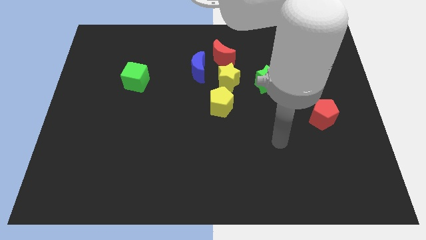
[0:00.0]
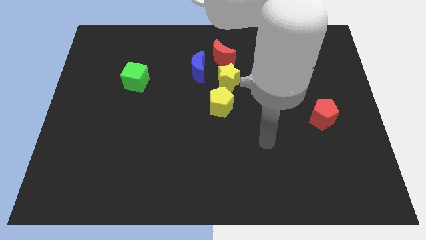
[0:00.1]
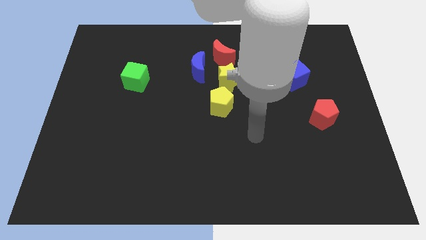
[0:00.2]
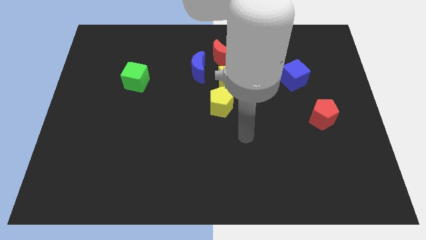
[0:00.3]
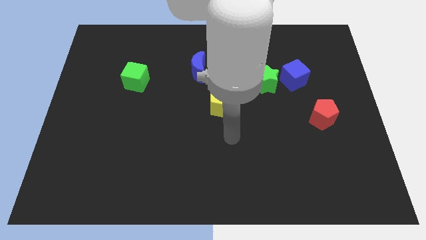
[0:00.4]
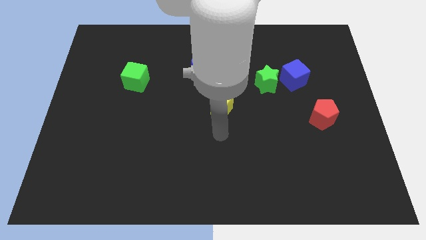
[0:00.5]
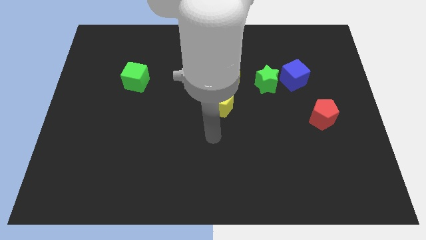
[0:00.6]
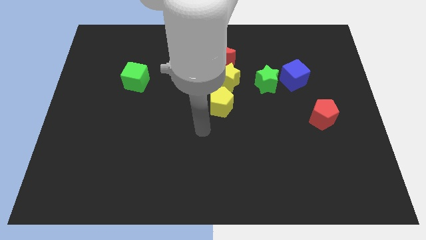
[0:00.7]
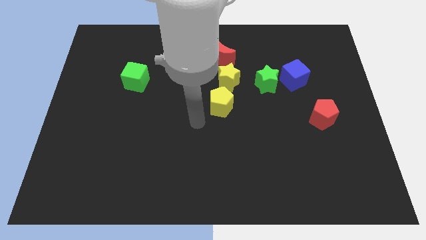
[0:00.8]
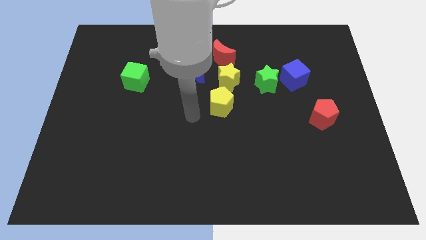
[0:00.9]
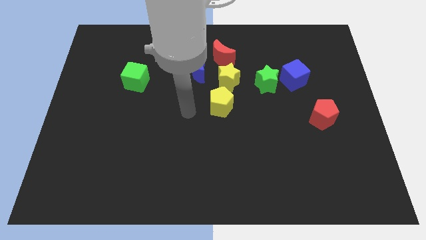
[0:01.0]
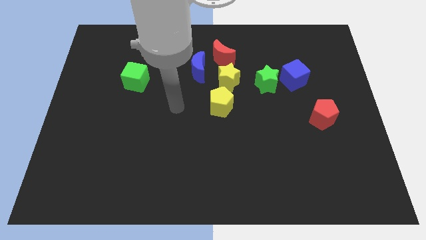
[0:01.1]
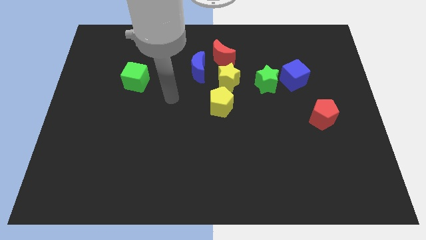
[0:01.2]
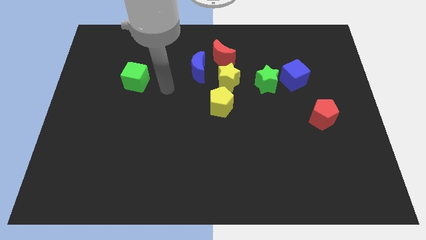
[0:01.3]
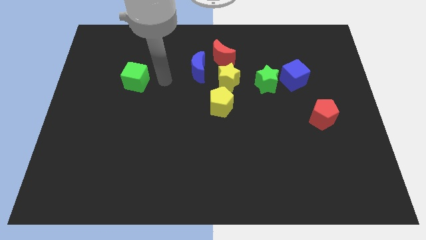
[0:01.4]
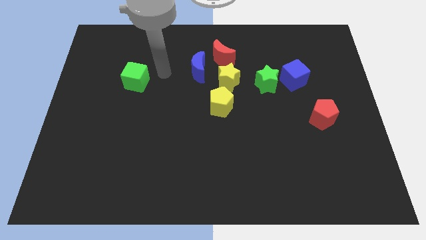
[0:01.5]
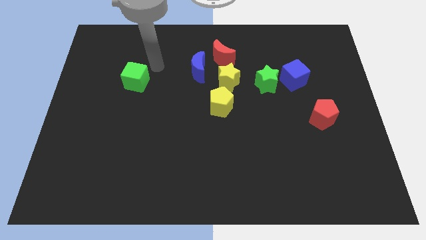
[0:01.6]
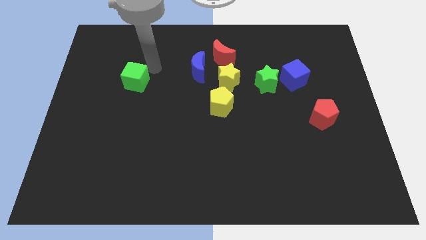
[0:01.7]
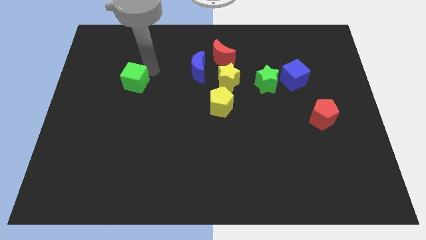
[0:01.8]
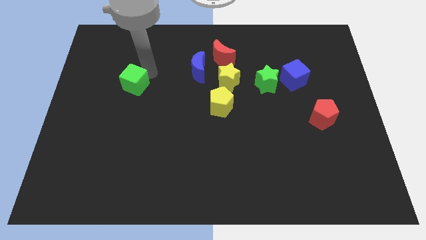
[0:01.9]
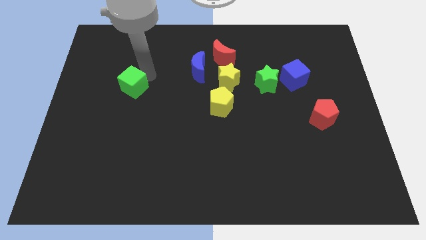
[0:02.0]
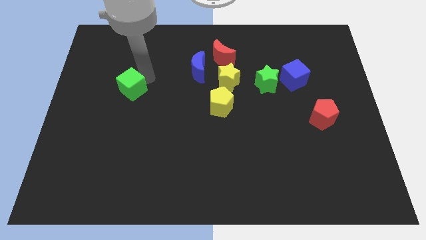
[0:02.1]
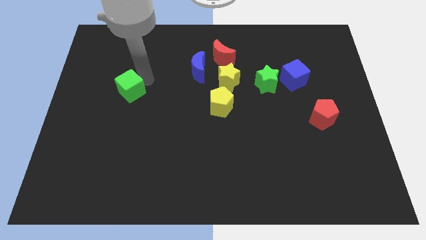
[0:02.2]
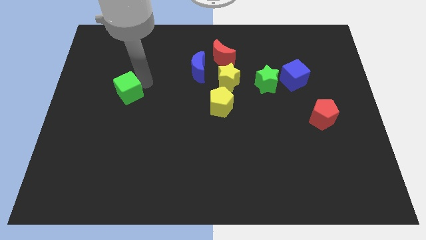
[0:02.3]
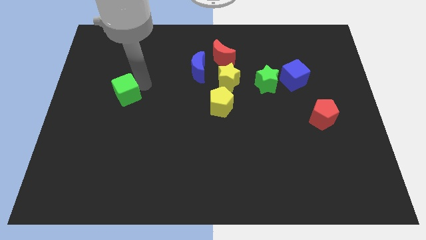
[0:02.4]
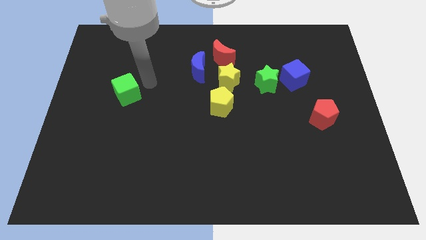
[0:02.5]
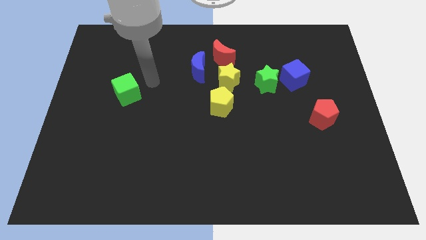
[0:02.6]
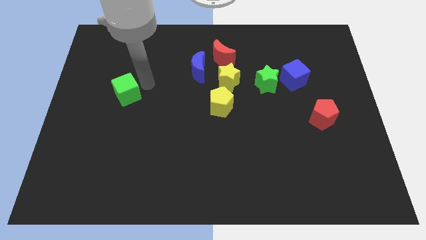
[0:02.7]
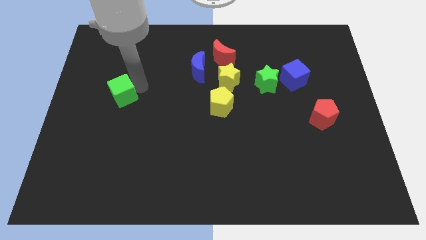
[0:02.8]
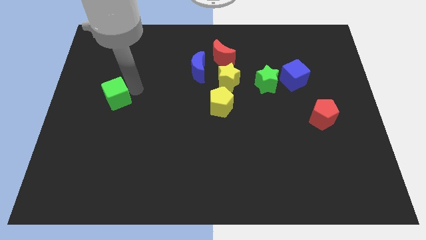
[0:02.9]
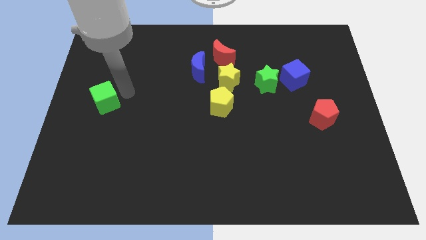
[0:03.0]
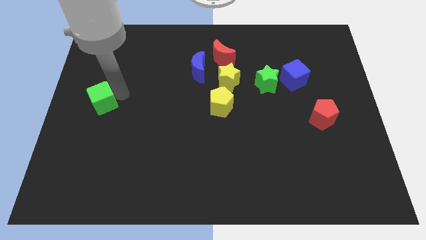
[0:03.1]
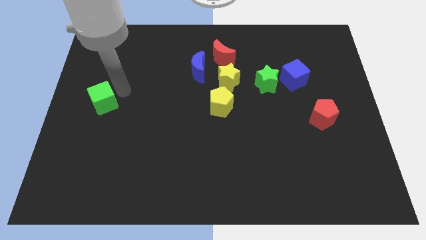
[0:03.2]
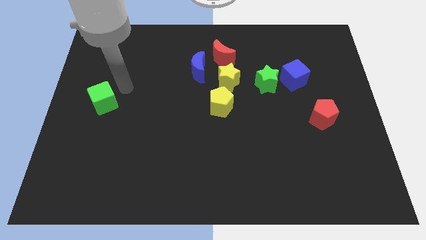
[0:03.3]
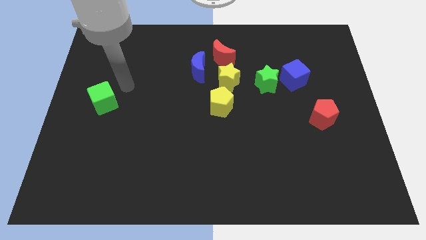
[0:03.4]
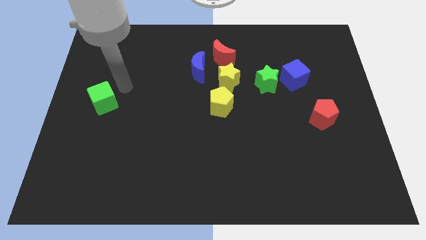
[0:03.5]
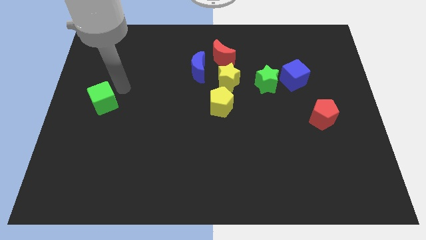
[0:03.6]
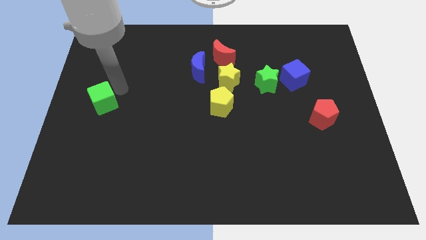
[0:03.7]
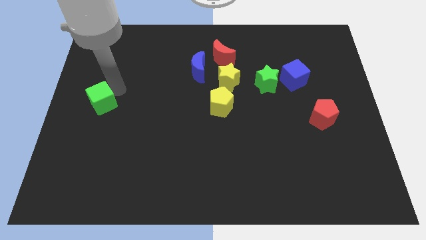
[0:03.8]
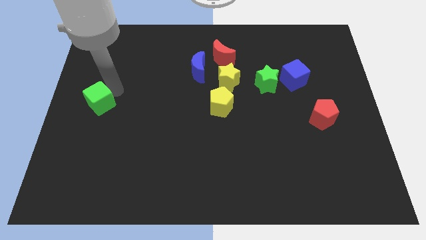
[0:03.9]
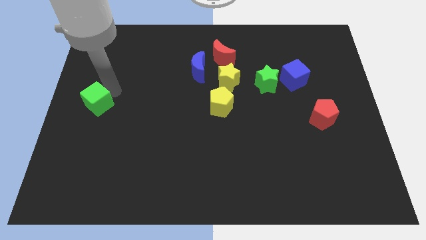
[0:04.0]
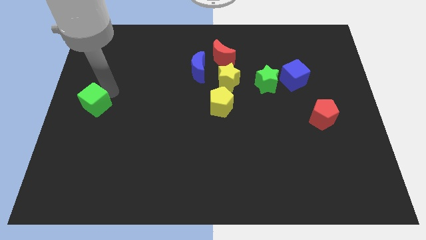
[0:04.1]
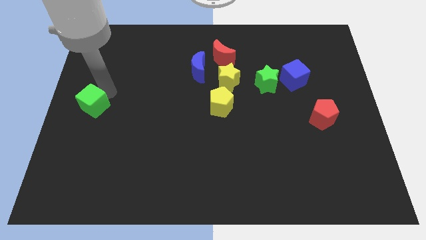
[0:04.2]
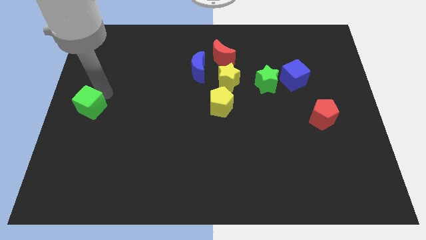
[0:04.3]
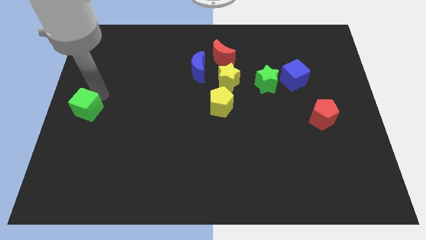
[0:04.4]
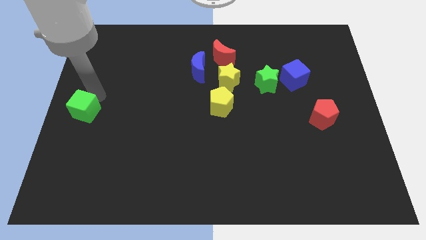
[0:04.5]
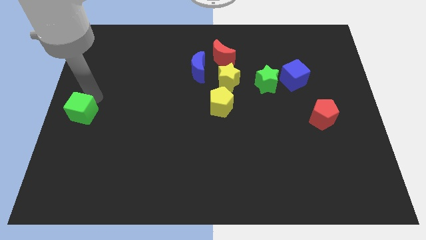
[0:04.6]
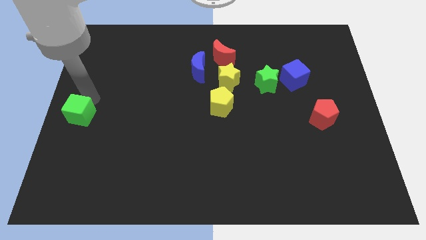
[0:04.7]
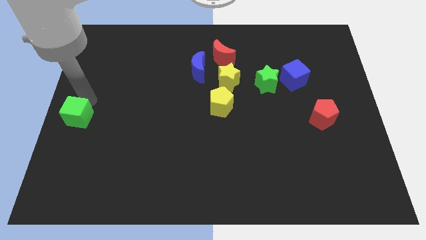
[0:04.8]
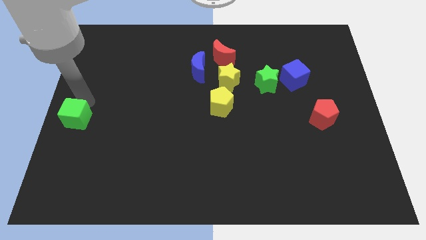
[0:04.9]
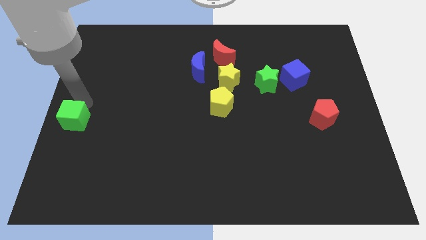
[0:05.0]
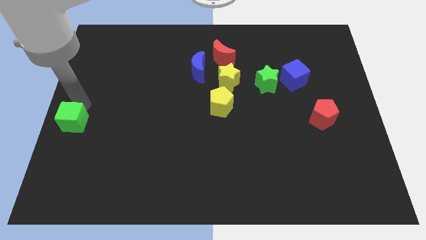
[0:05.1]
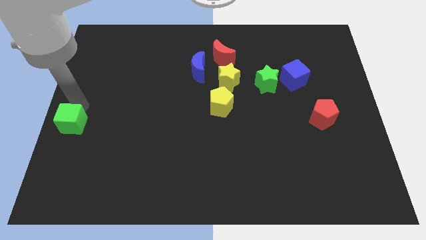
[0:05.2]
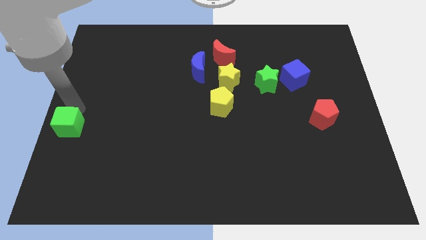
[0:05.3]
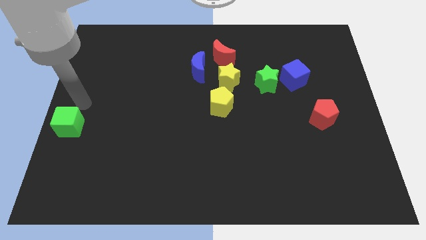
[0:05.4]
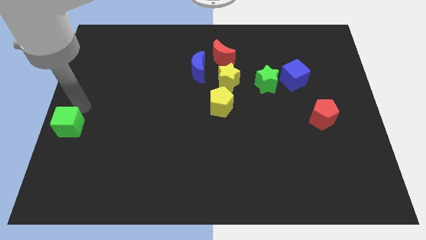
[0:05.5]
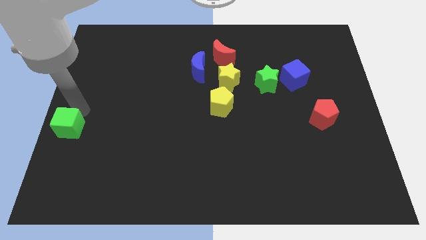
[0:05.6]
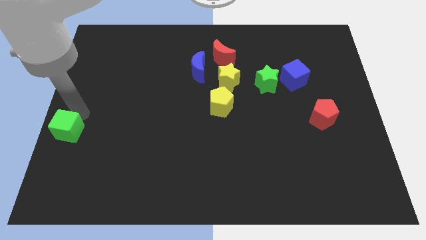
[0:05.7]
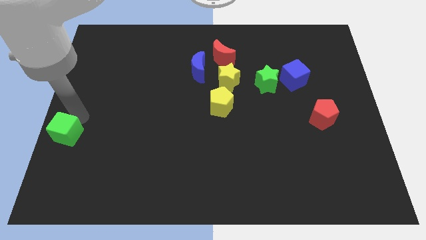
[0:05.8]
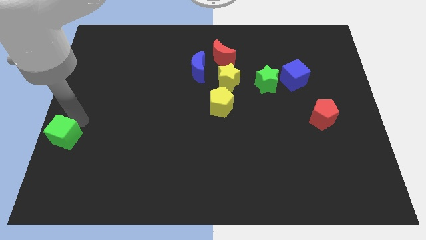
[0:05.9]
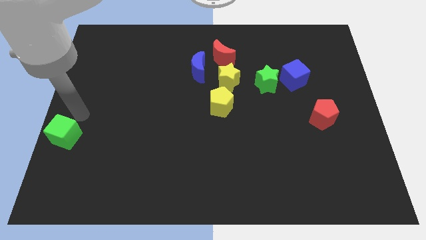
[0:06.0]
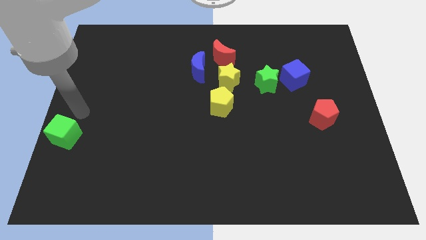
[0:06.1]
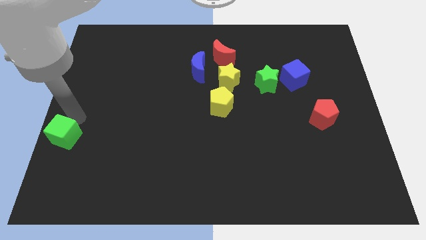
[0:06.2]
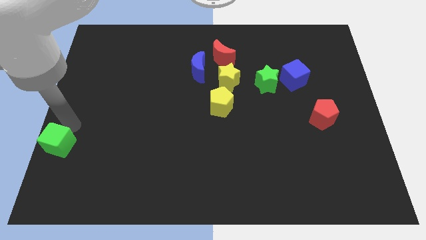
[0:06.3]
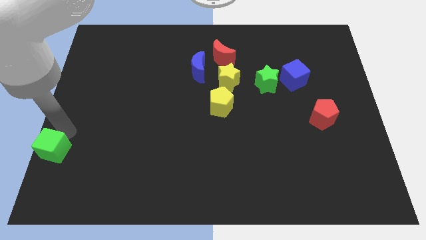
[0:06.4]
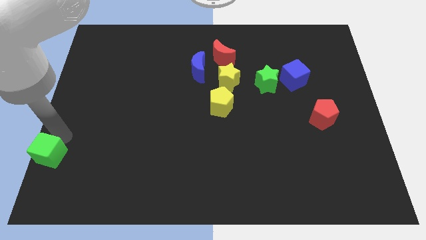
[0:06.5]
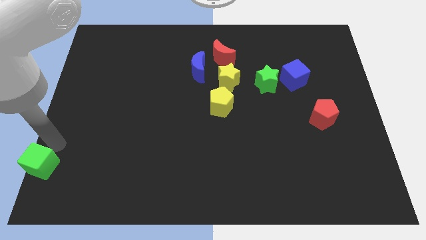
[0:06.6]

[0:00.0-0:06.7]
slide the green cube to the lower left corner

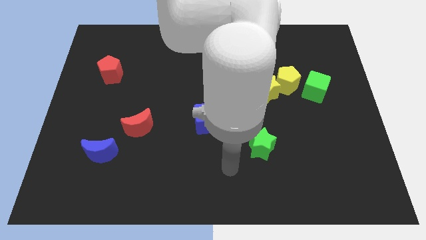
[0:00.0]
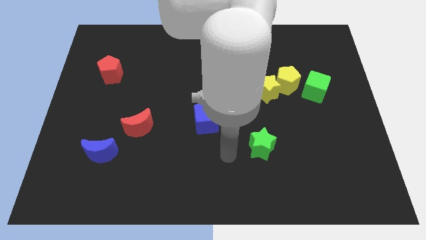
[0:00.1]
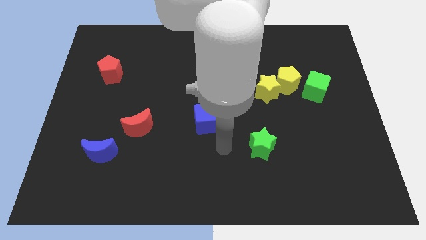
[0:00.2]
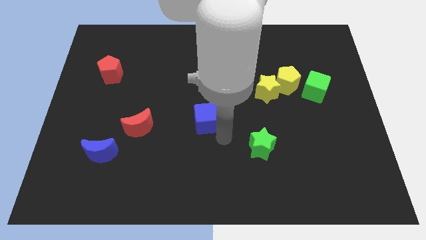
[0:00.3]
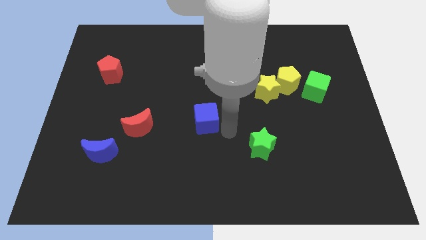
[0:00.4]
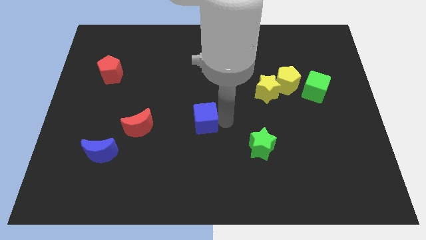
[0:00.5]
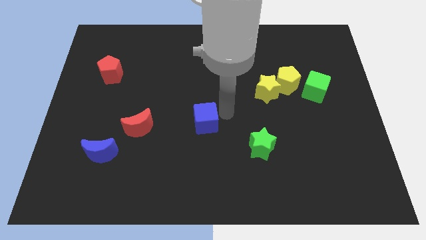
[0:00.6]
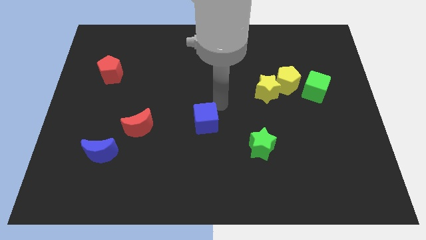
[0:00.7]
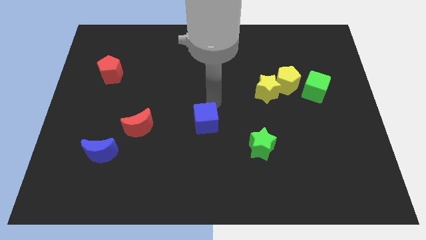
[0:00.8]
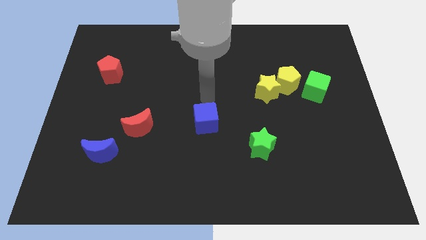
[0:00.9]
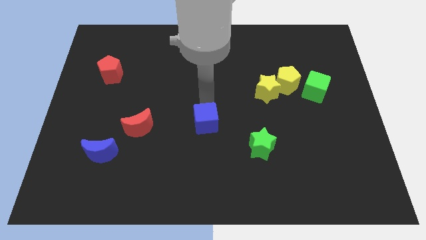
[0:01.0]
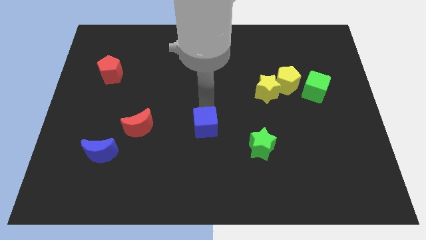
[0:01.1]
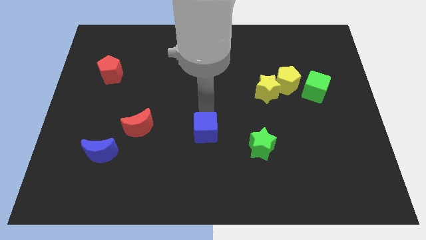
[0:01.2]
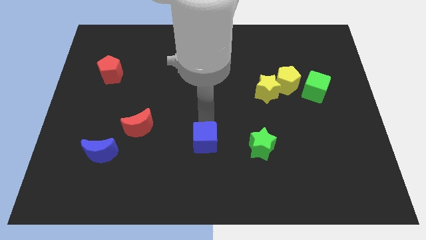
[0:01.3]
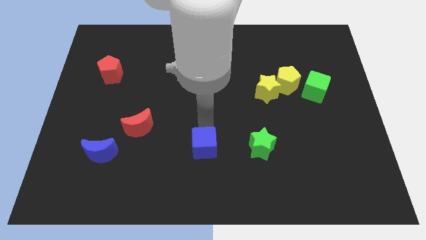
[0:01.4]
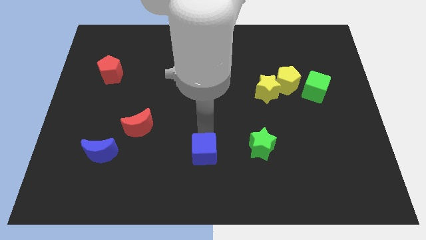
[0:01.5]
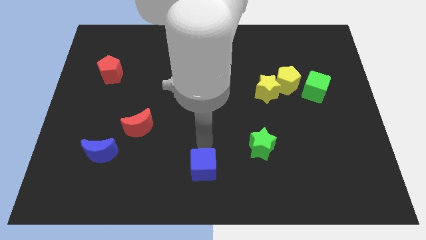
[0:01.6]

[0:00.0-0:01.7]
push the blue cube to the bottom
